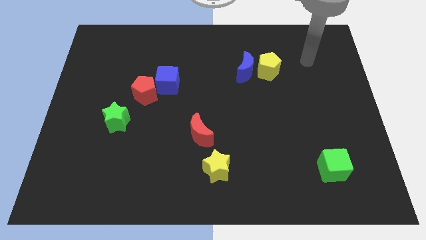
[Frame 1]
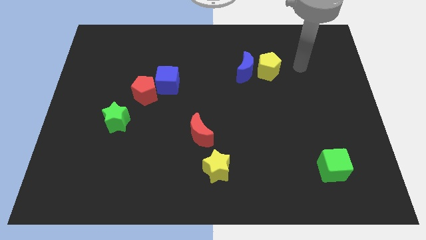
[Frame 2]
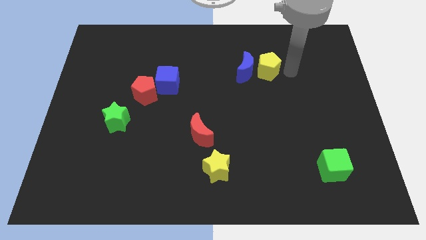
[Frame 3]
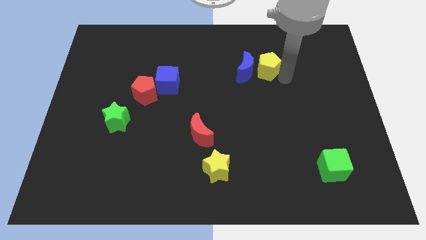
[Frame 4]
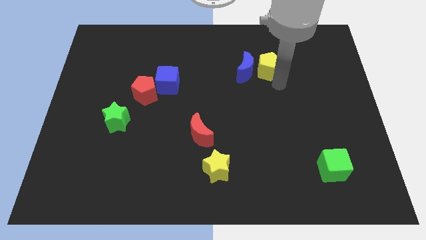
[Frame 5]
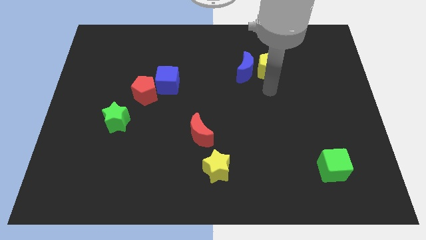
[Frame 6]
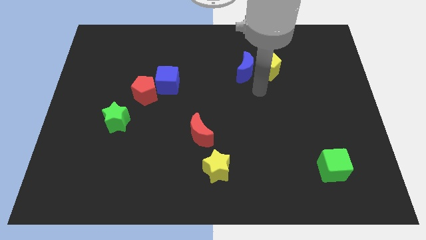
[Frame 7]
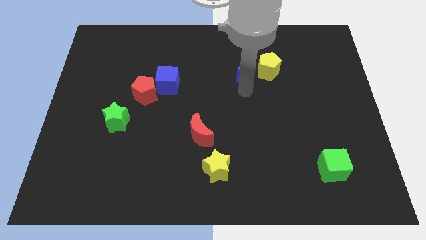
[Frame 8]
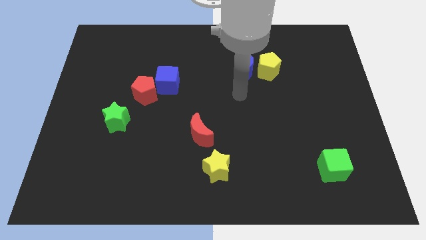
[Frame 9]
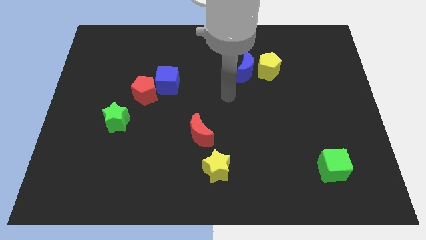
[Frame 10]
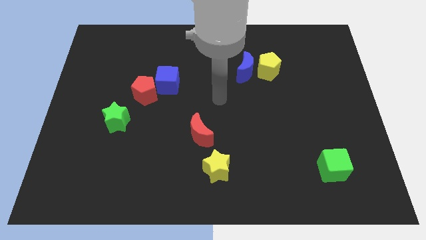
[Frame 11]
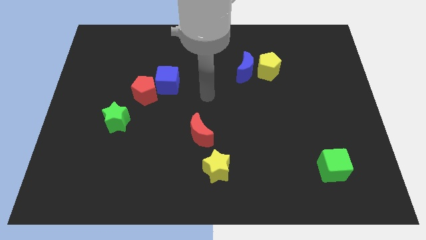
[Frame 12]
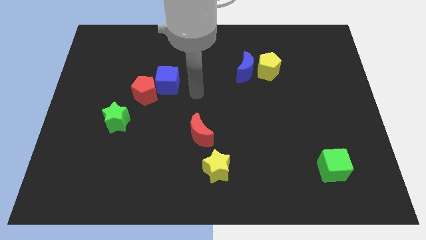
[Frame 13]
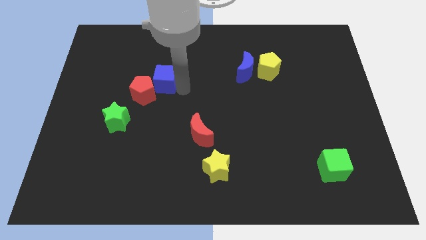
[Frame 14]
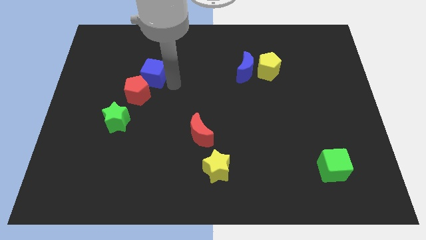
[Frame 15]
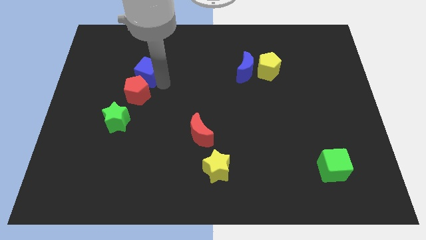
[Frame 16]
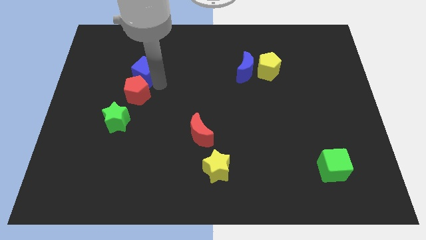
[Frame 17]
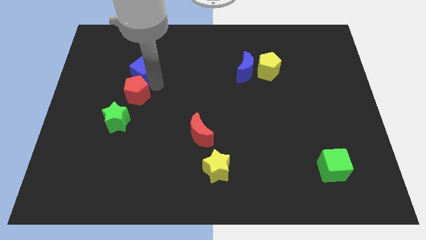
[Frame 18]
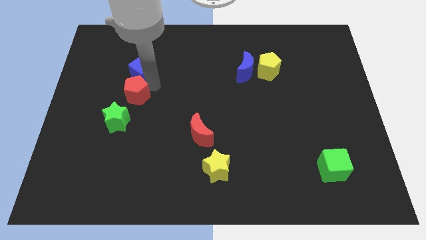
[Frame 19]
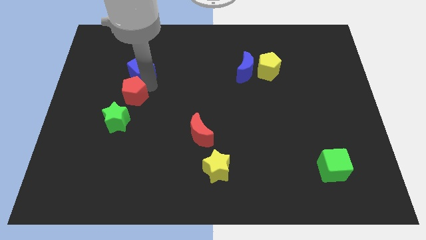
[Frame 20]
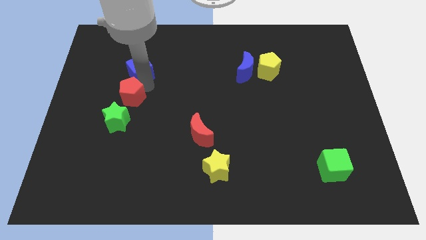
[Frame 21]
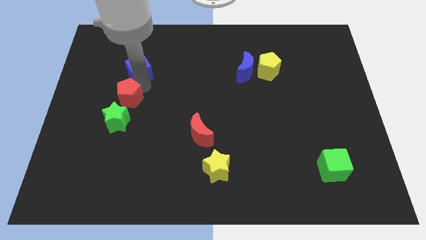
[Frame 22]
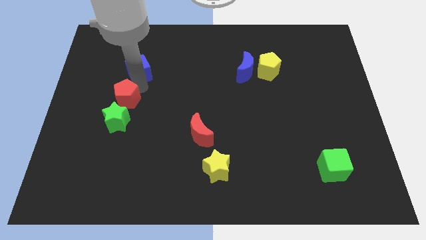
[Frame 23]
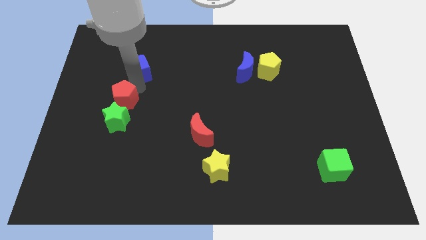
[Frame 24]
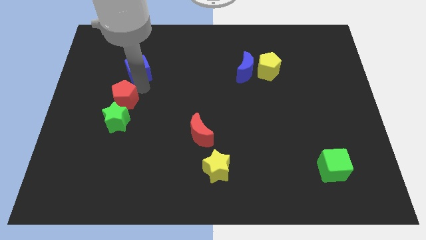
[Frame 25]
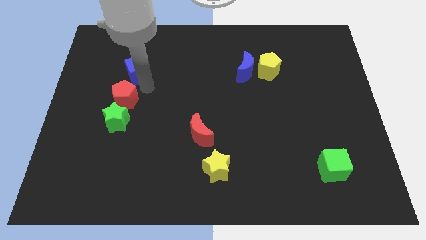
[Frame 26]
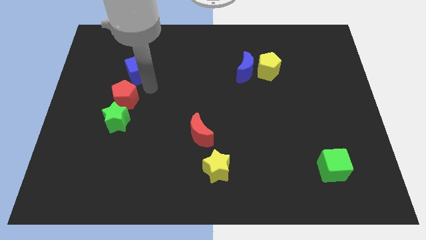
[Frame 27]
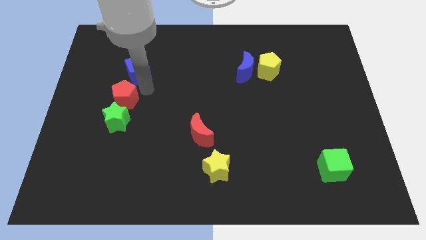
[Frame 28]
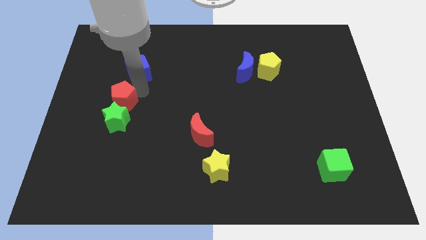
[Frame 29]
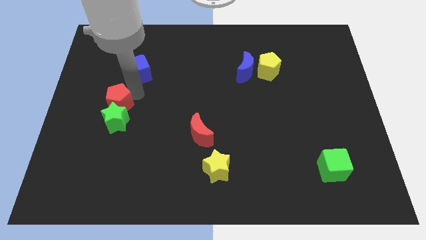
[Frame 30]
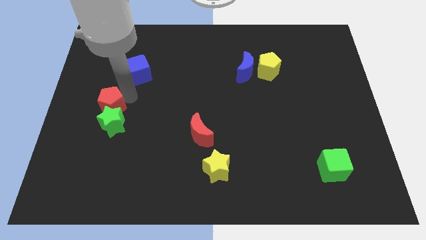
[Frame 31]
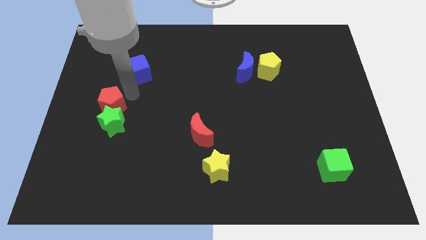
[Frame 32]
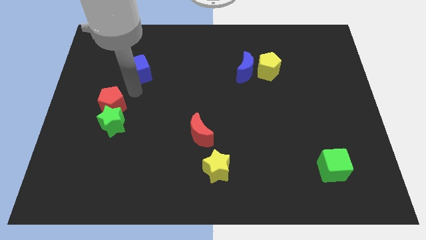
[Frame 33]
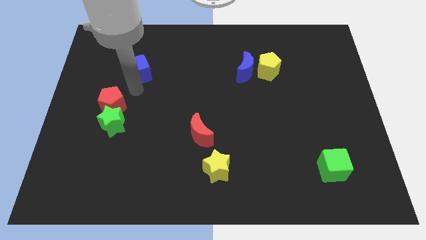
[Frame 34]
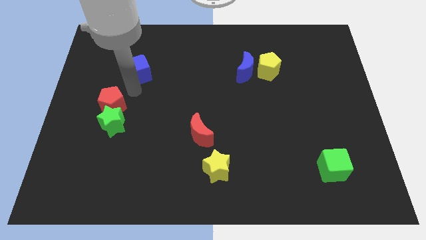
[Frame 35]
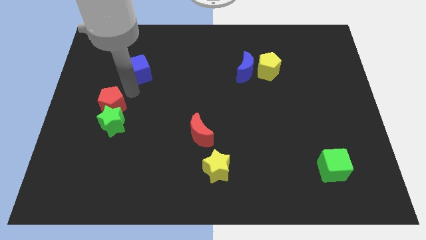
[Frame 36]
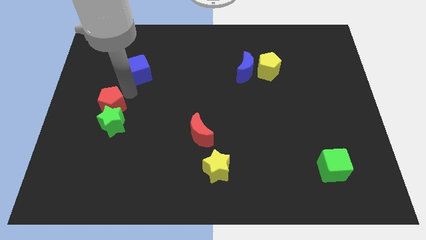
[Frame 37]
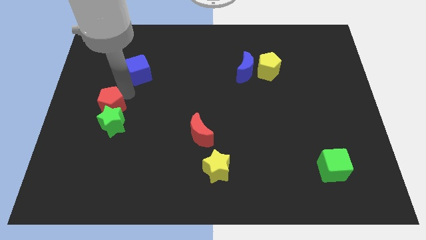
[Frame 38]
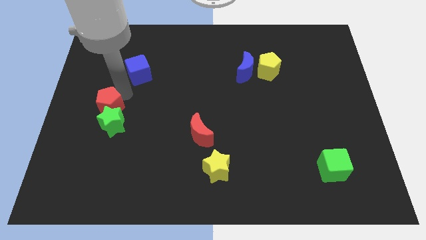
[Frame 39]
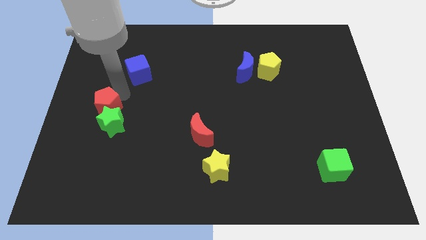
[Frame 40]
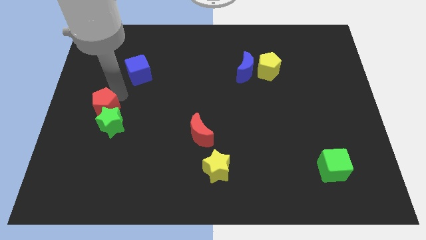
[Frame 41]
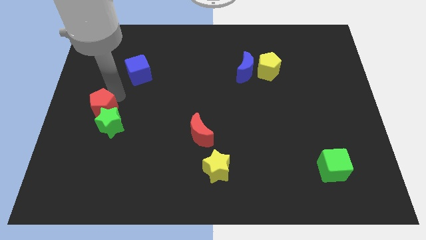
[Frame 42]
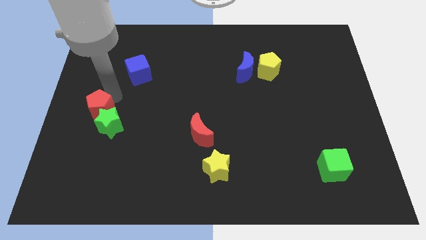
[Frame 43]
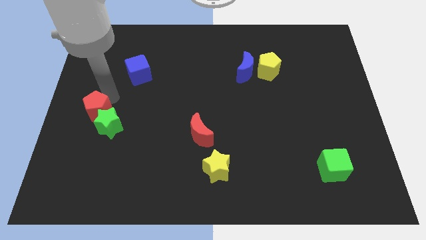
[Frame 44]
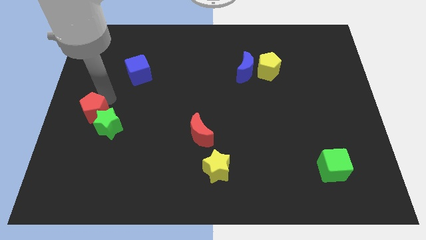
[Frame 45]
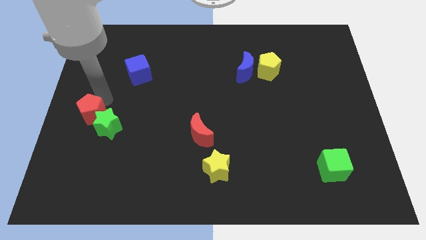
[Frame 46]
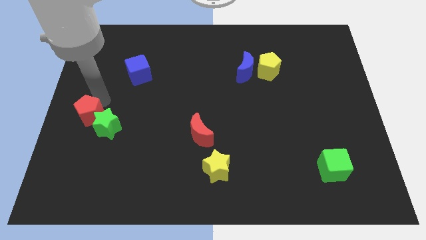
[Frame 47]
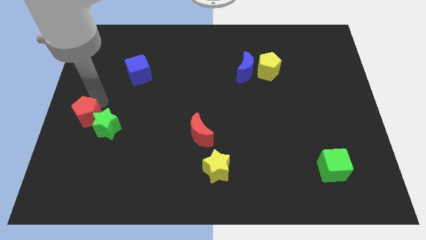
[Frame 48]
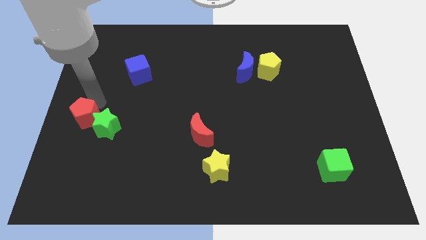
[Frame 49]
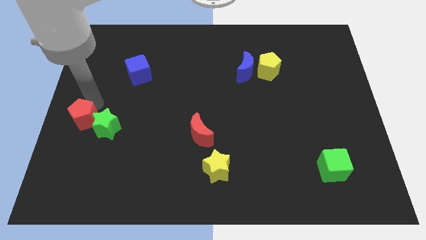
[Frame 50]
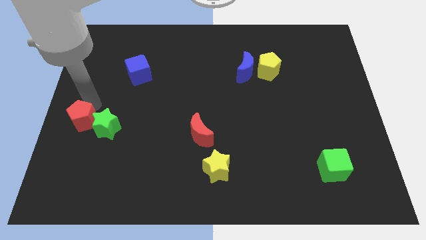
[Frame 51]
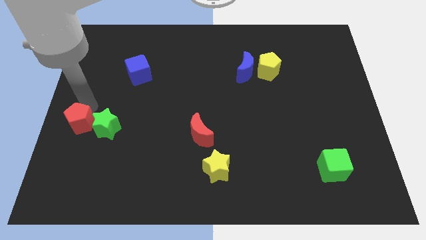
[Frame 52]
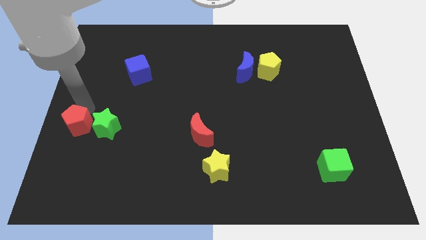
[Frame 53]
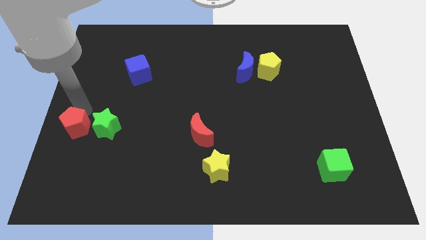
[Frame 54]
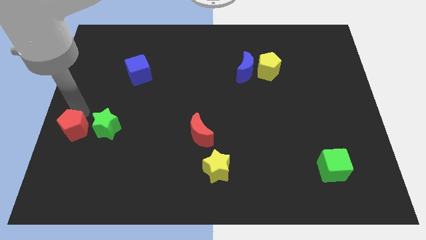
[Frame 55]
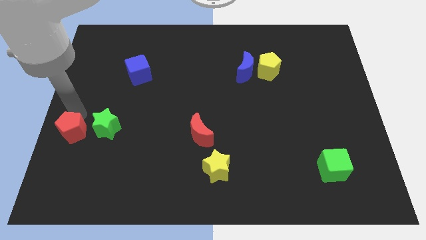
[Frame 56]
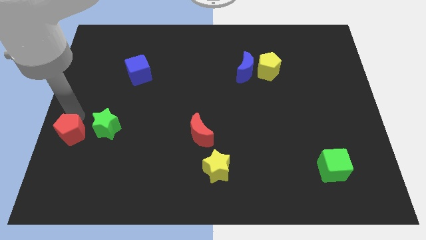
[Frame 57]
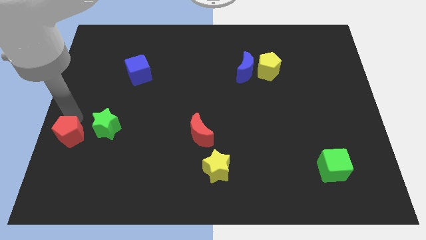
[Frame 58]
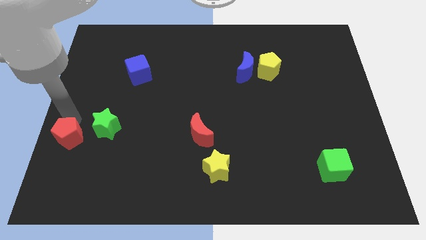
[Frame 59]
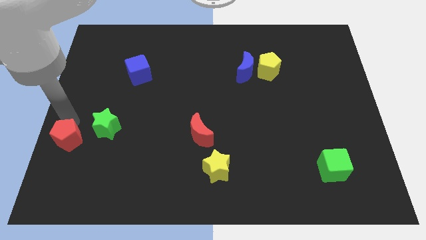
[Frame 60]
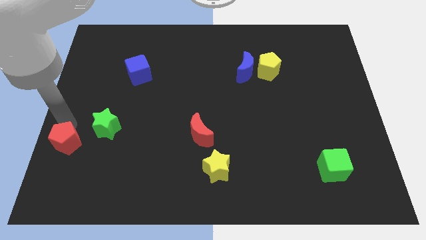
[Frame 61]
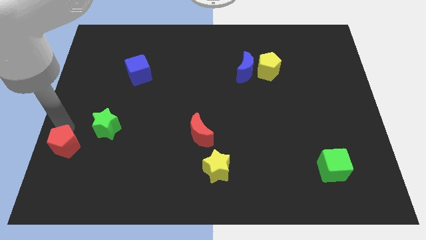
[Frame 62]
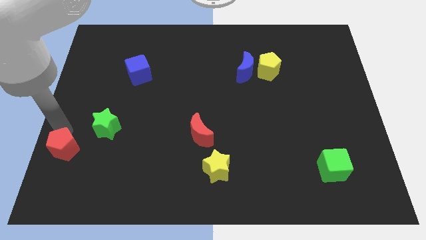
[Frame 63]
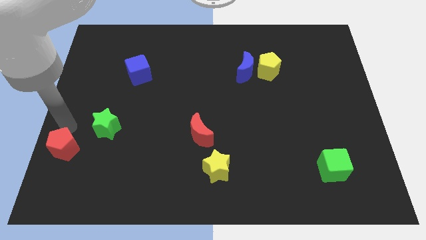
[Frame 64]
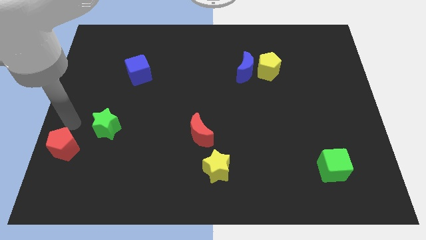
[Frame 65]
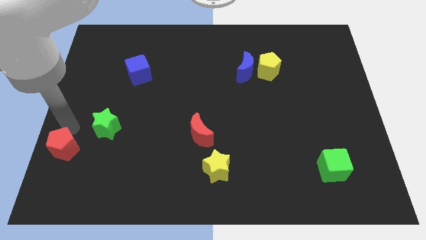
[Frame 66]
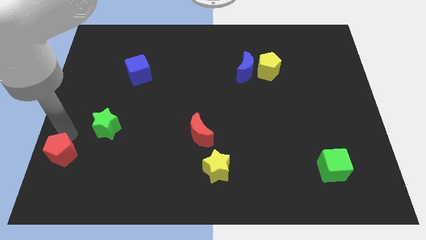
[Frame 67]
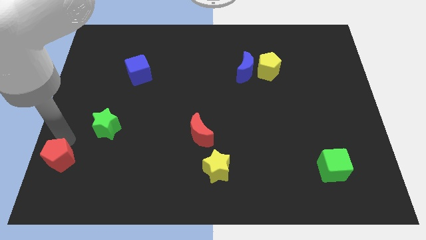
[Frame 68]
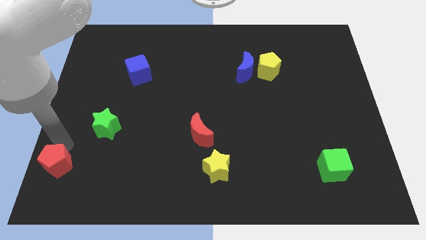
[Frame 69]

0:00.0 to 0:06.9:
put the red pentagon to the bottom left of the board
